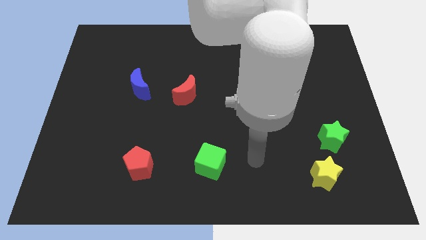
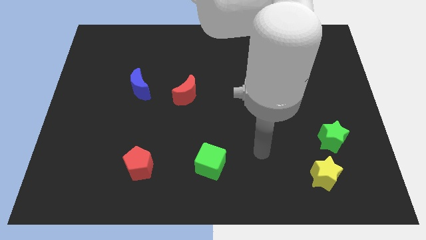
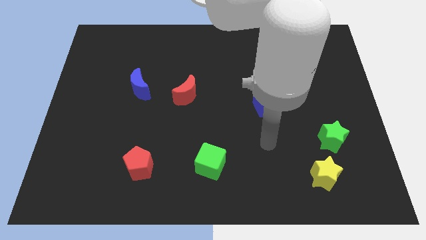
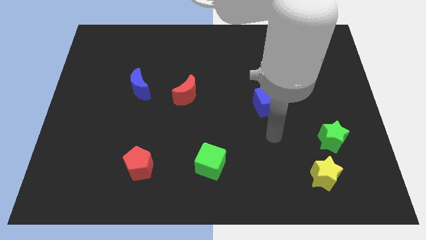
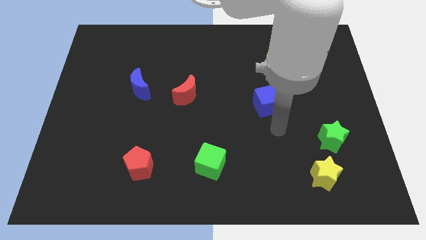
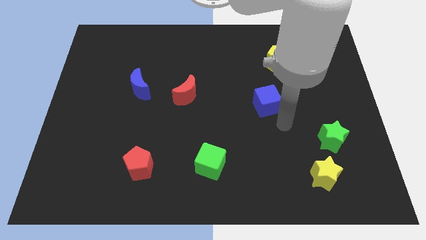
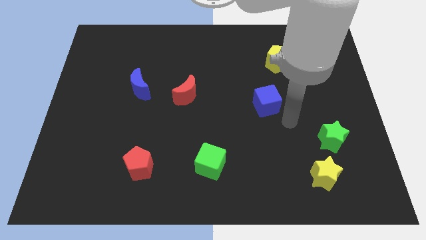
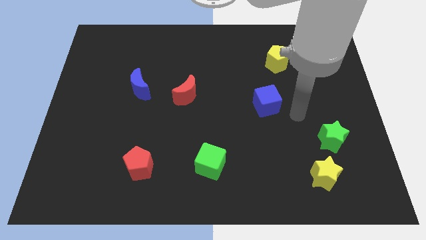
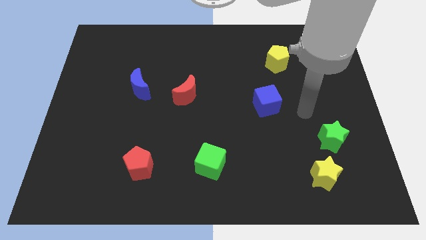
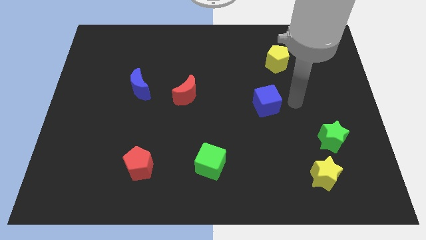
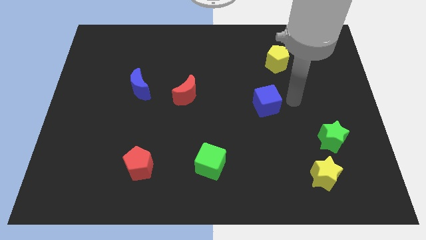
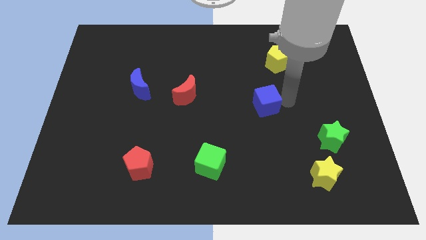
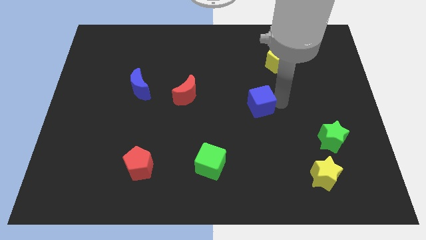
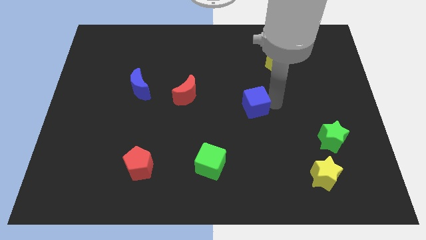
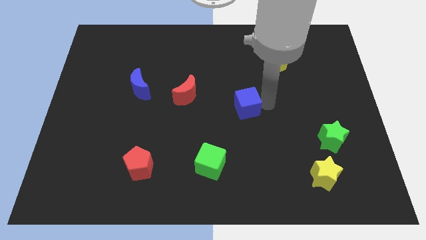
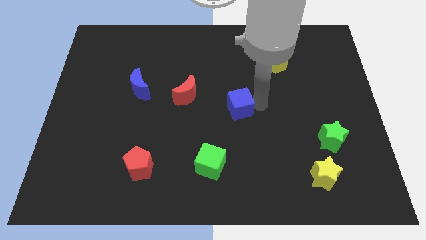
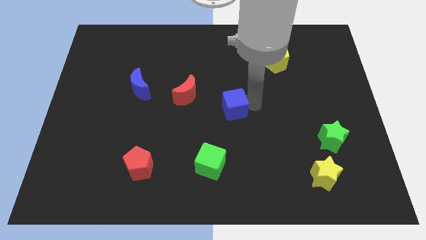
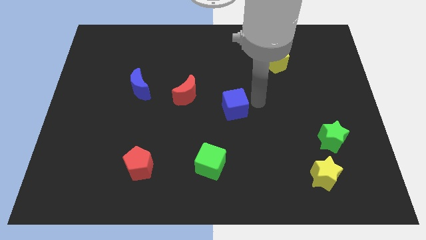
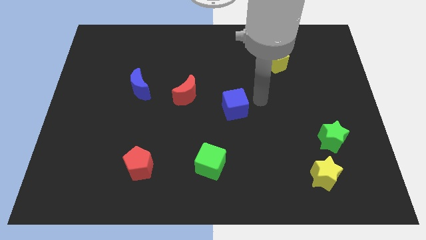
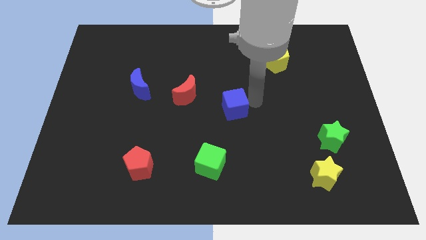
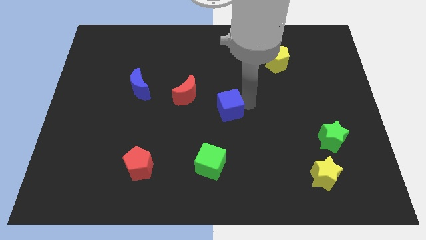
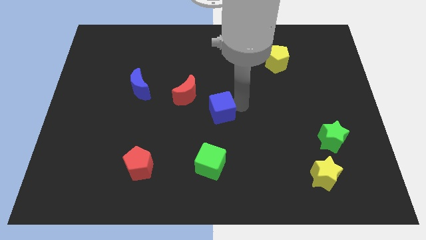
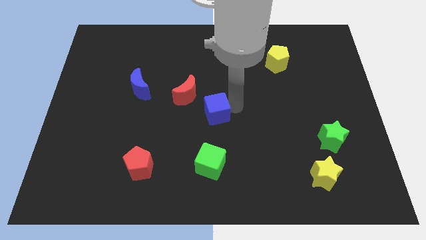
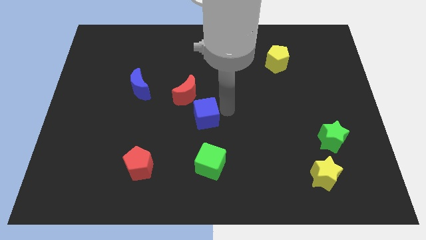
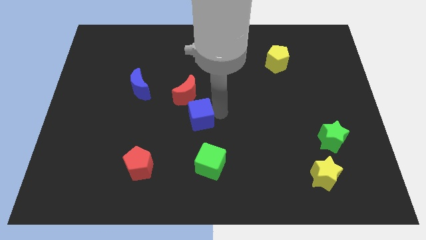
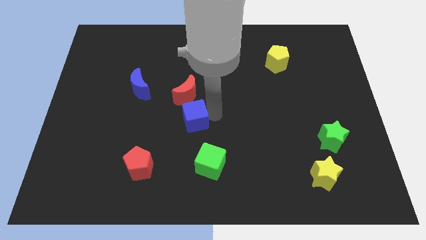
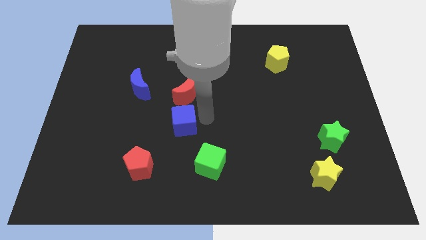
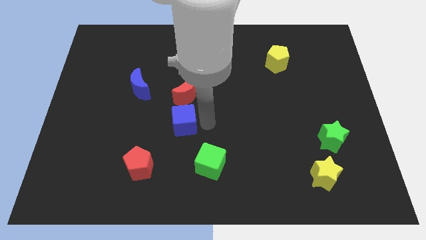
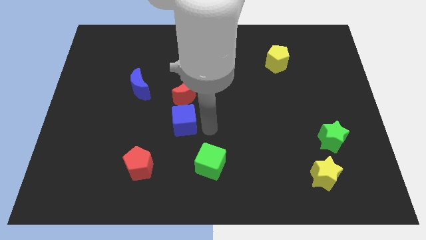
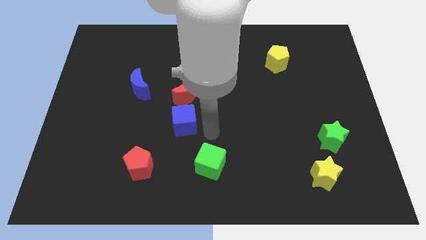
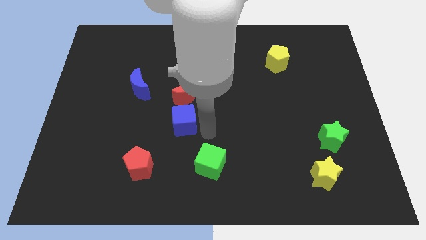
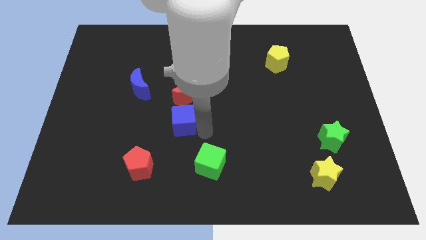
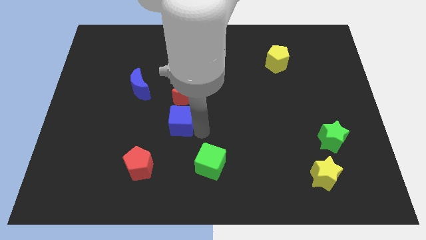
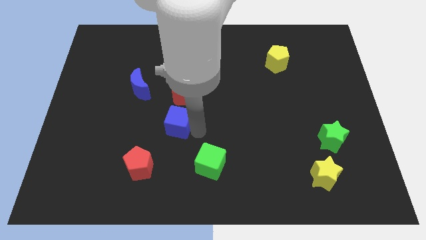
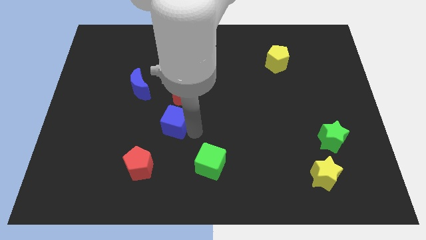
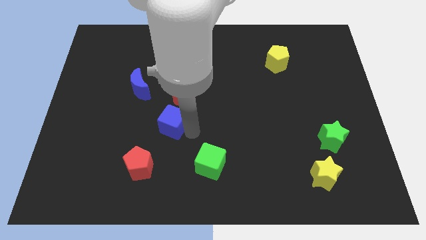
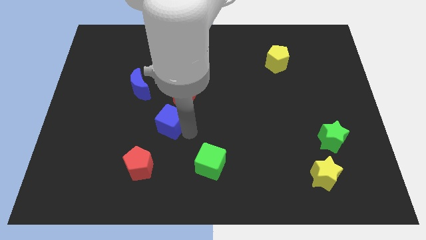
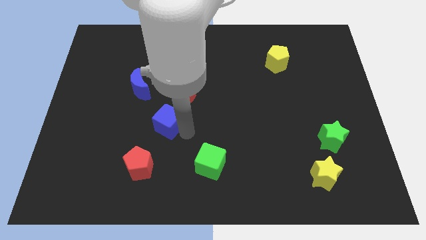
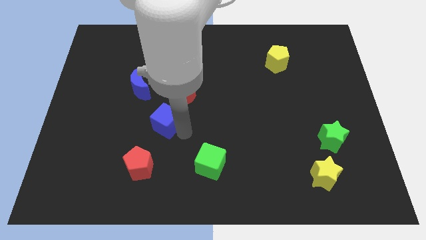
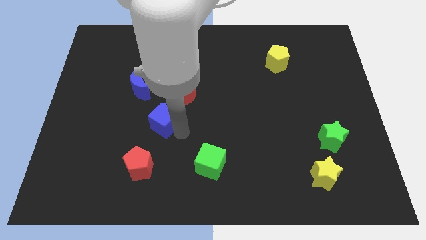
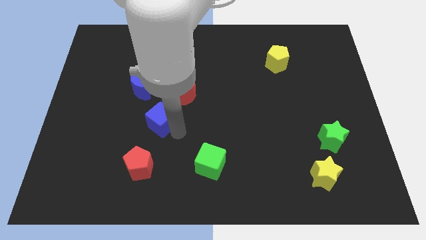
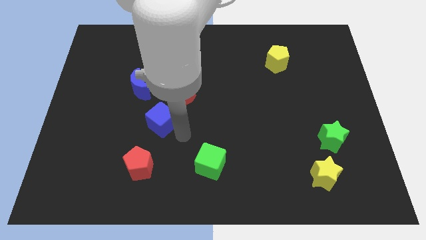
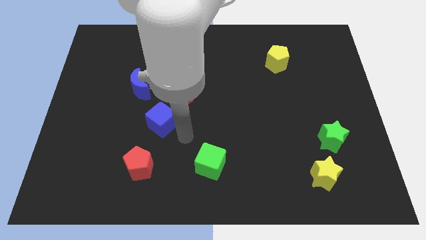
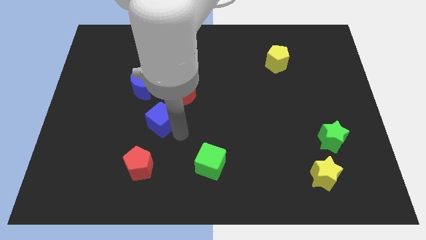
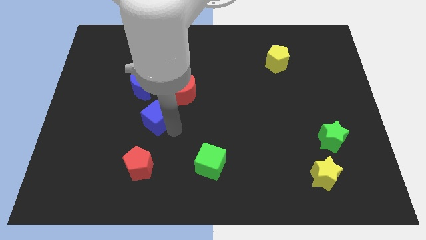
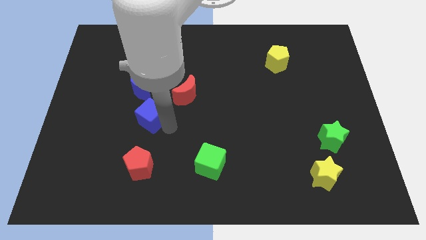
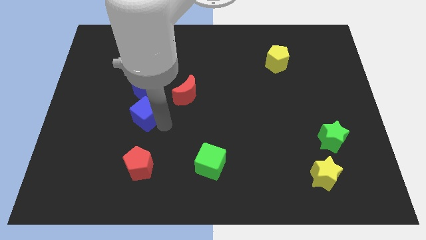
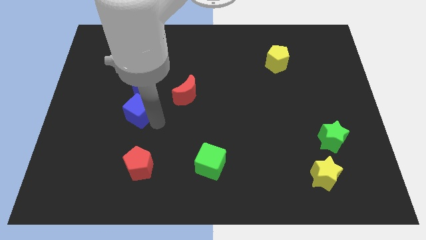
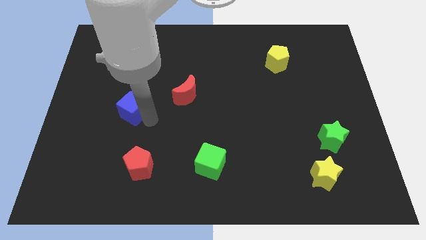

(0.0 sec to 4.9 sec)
move the blue cube to the left side of the red moon

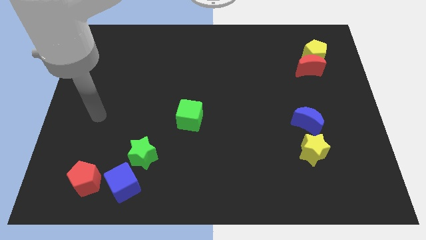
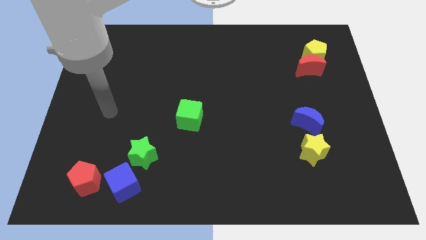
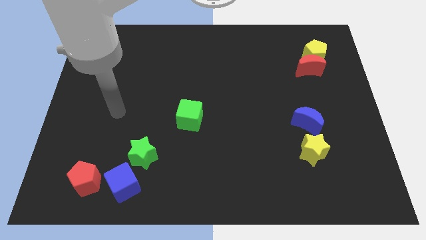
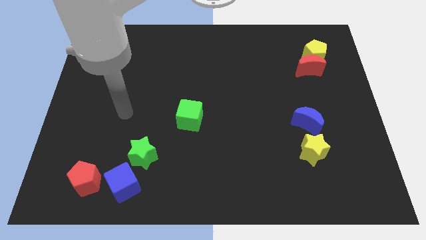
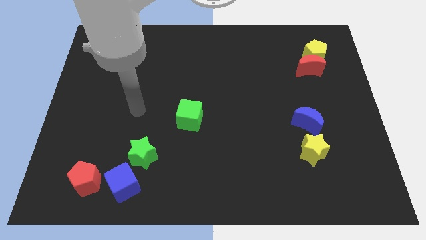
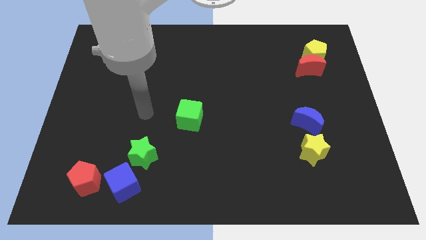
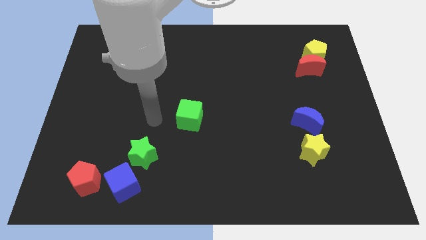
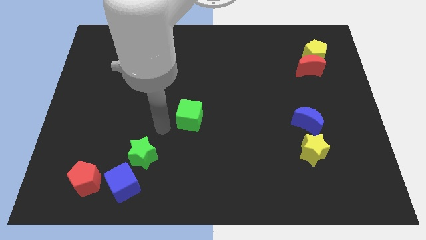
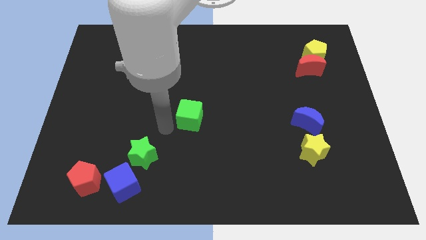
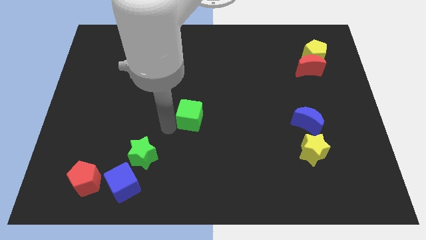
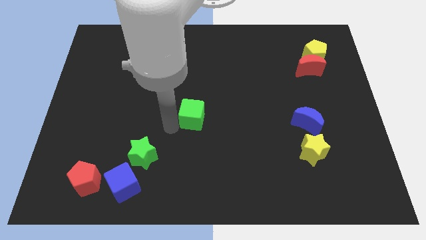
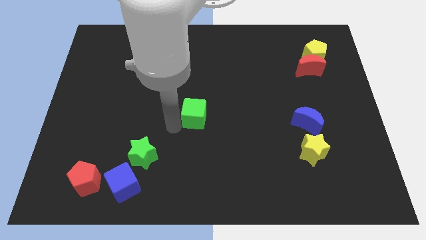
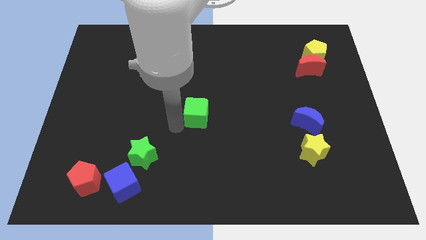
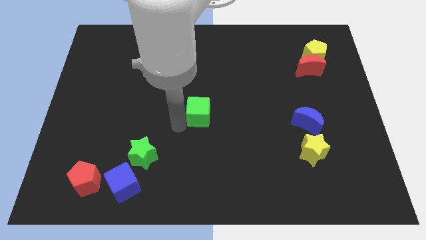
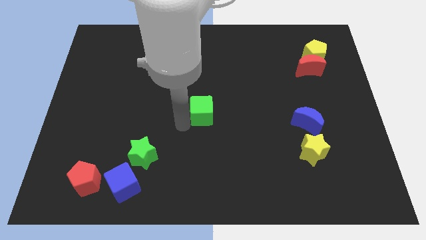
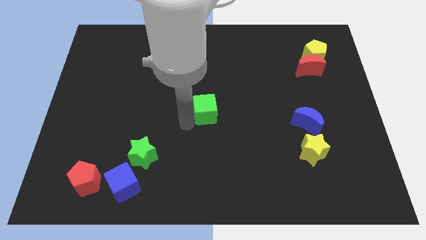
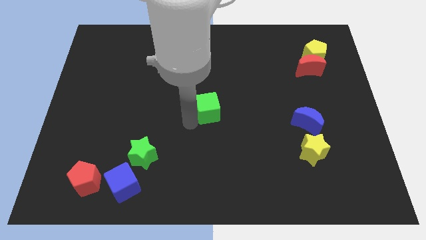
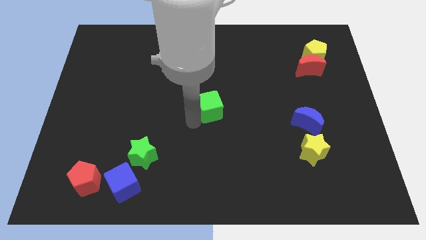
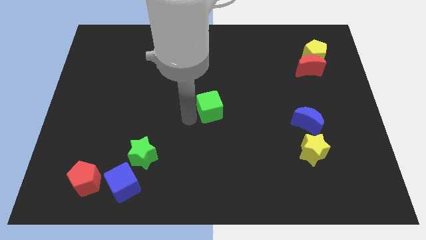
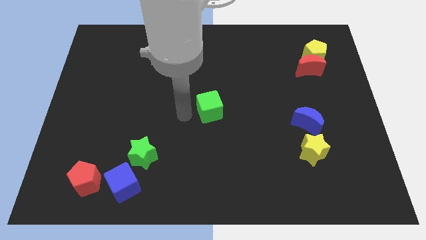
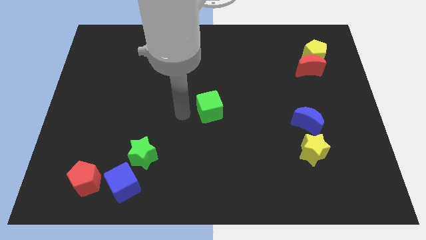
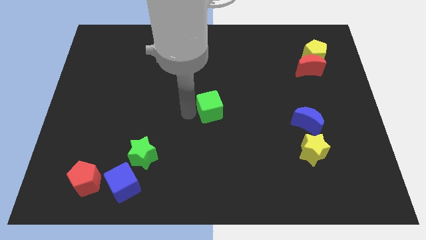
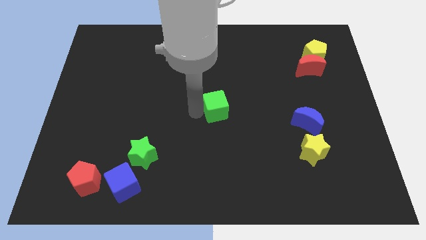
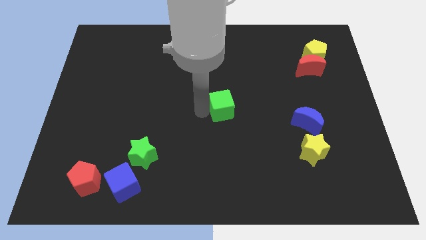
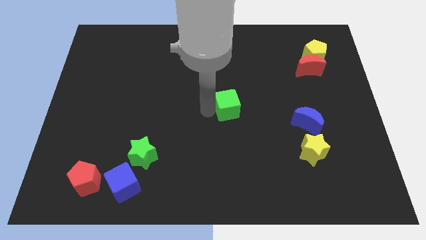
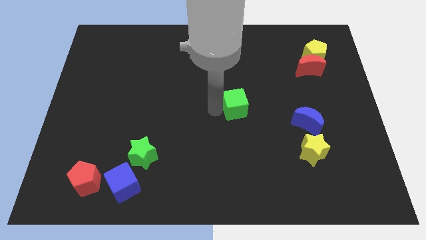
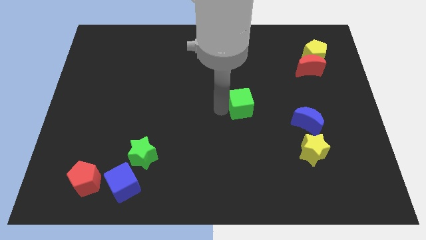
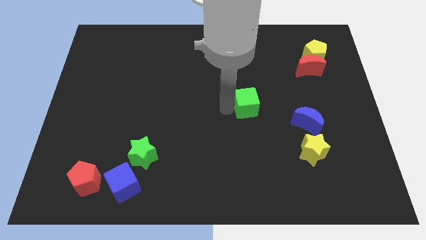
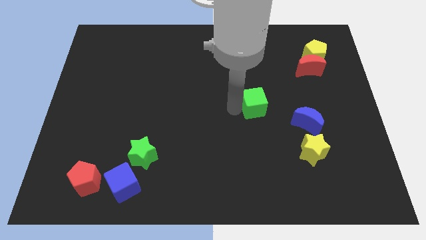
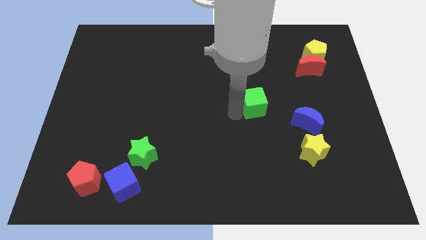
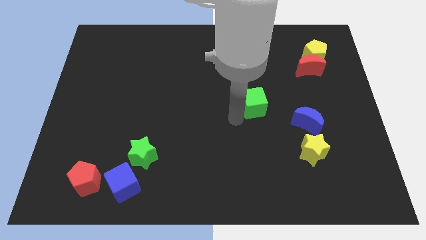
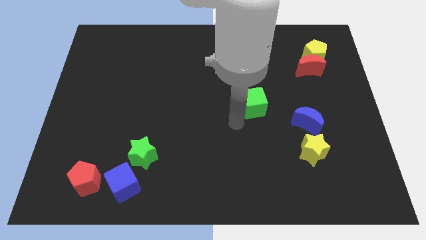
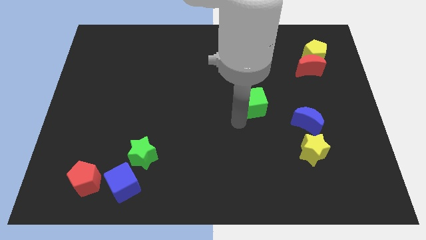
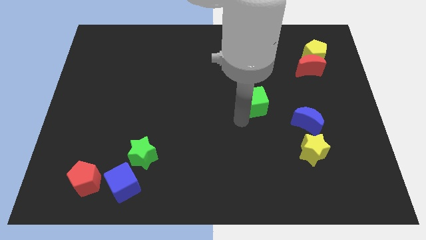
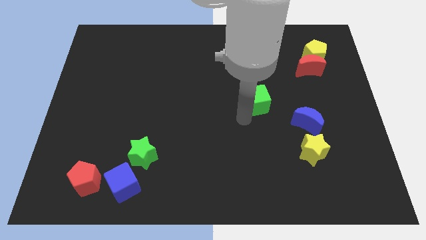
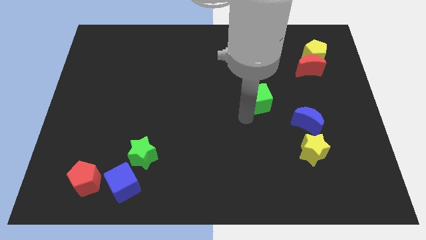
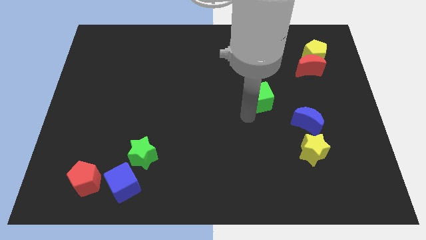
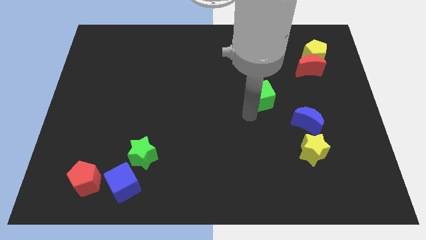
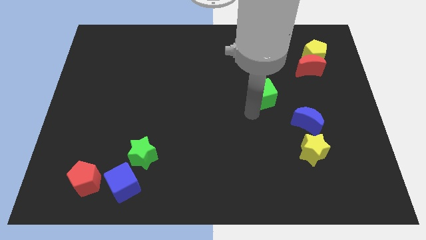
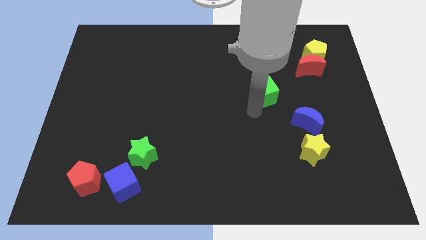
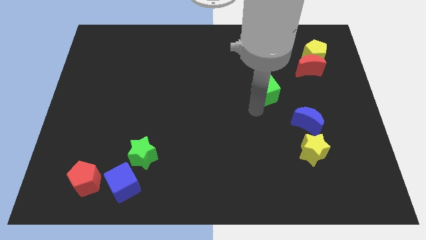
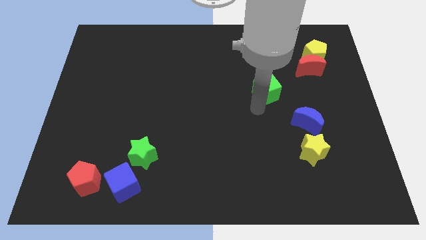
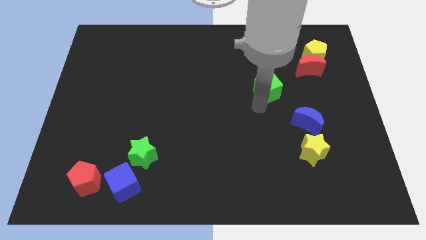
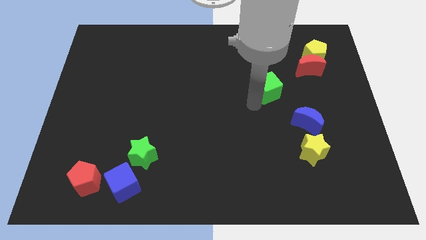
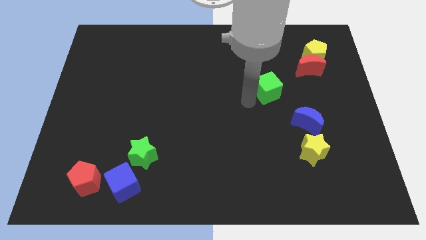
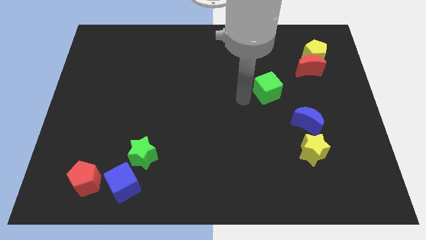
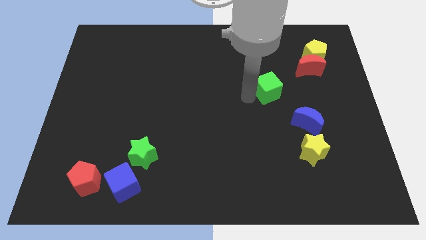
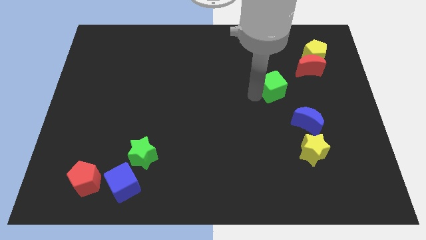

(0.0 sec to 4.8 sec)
slide the green cube diagonally down and to the left of the red moon
